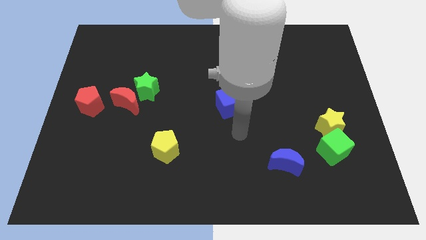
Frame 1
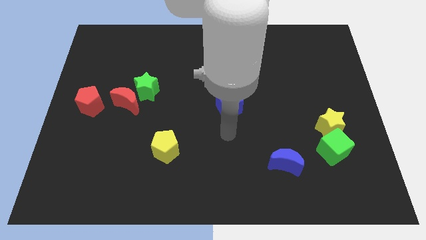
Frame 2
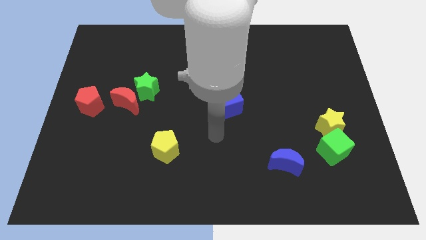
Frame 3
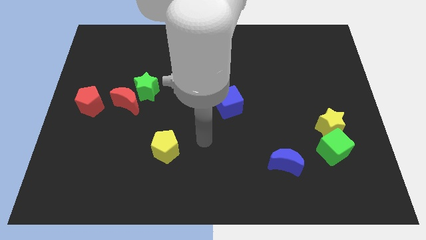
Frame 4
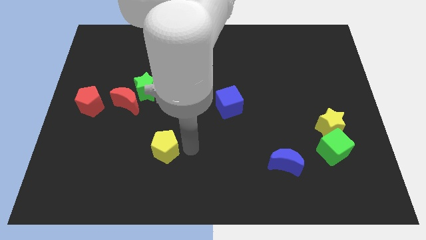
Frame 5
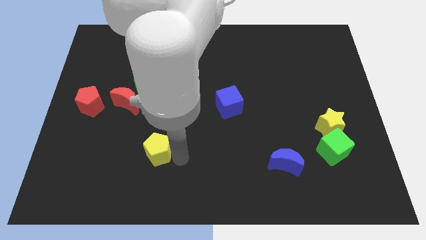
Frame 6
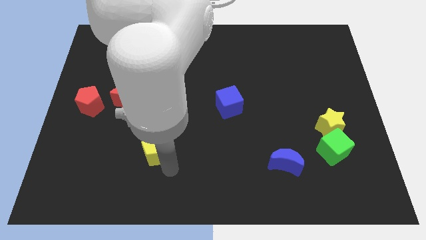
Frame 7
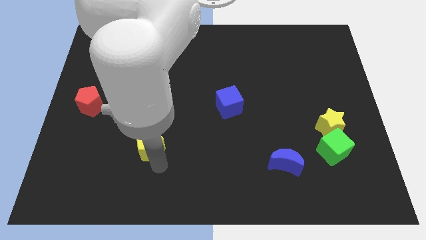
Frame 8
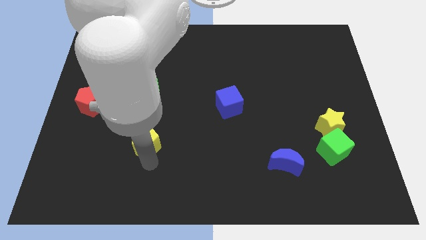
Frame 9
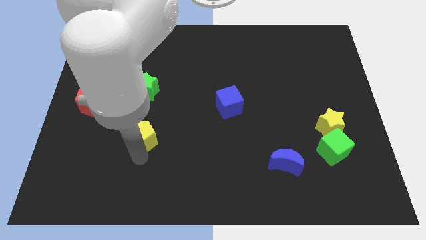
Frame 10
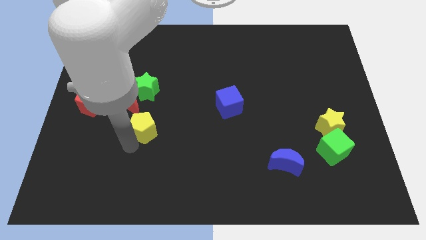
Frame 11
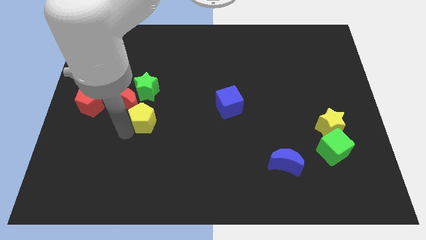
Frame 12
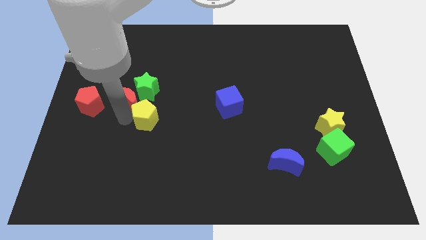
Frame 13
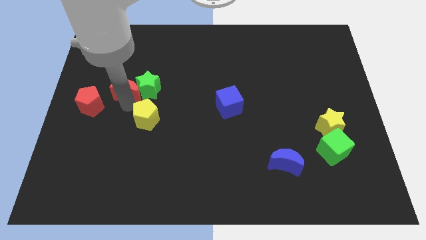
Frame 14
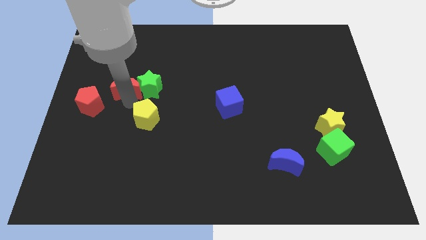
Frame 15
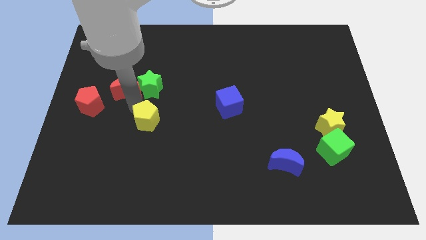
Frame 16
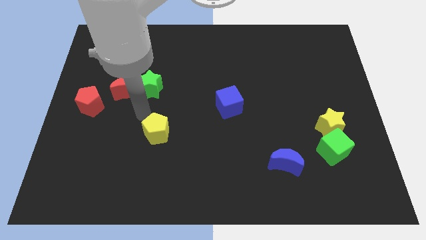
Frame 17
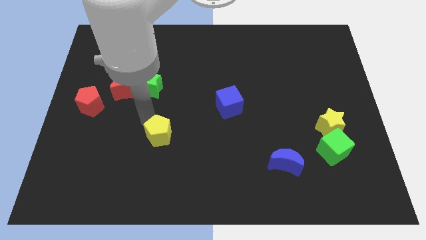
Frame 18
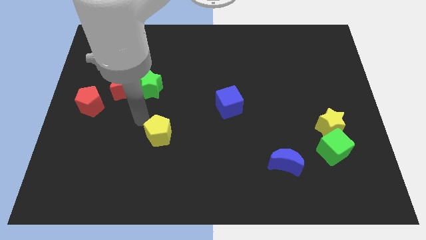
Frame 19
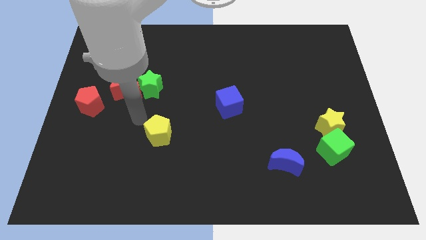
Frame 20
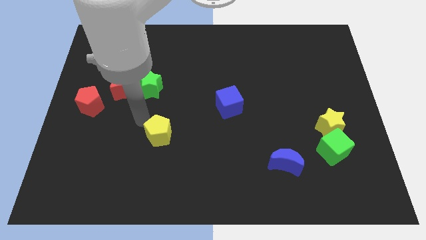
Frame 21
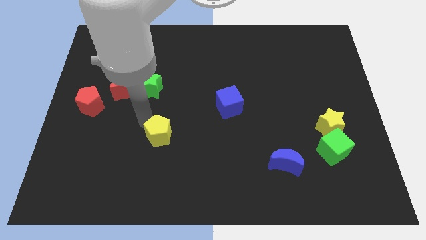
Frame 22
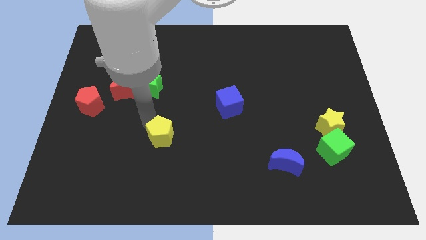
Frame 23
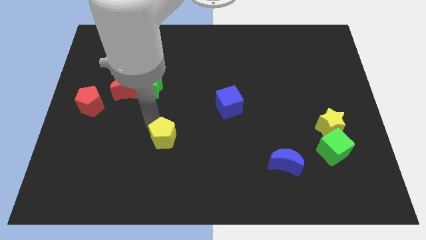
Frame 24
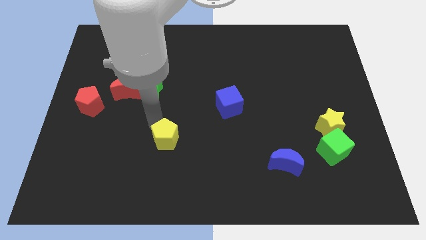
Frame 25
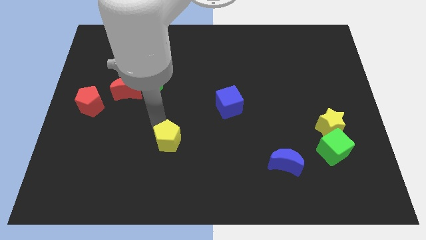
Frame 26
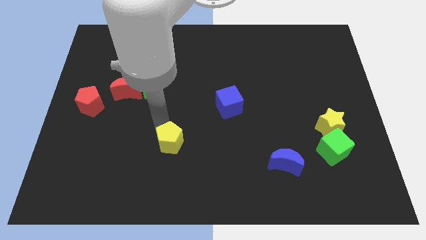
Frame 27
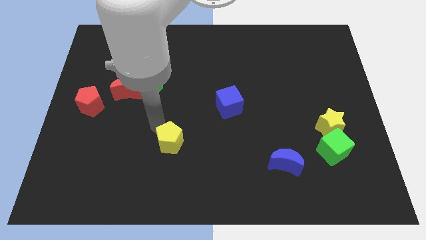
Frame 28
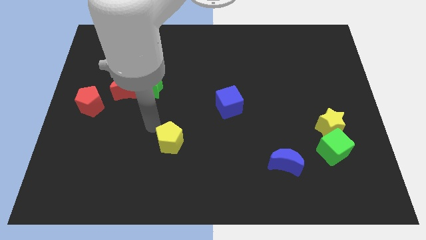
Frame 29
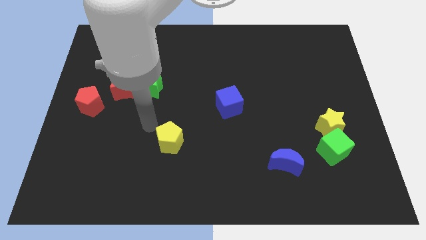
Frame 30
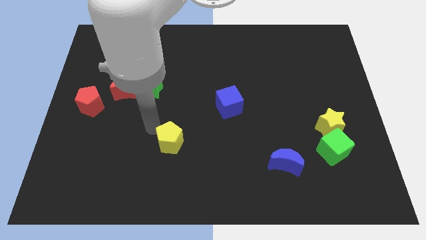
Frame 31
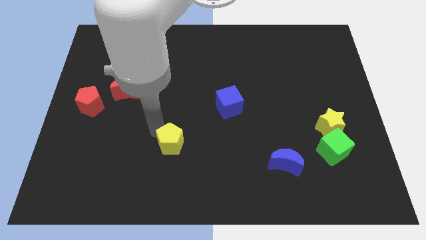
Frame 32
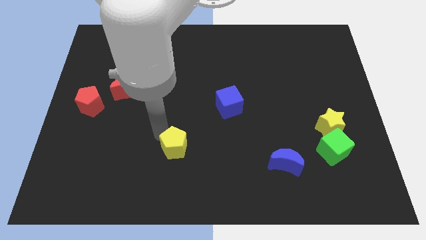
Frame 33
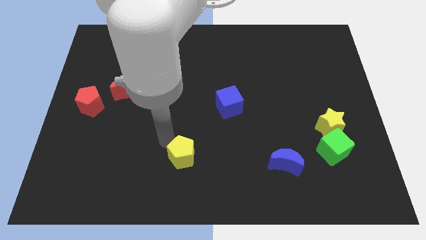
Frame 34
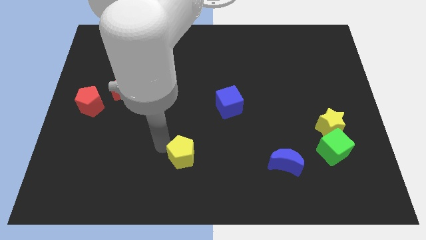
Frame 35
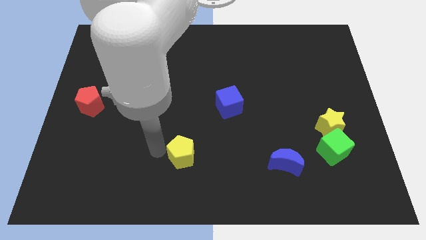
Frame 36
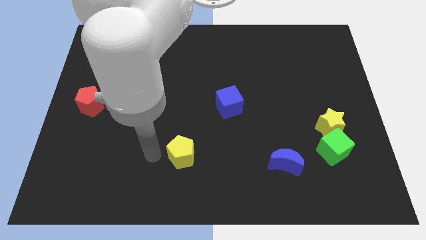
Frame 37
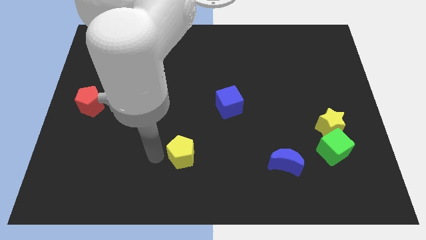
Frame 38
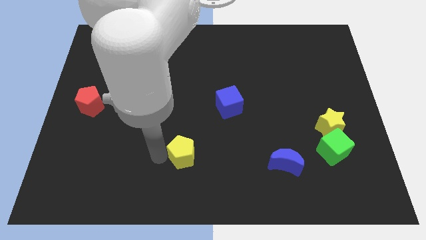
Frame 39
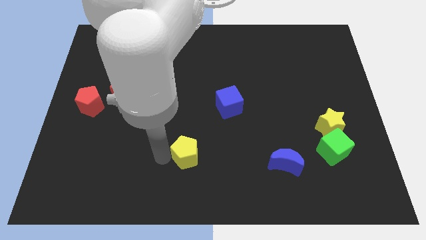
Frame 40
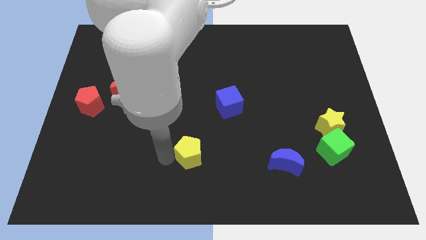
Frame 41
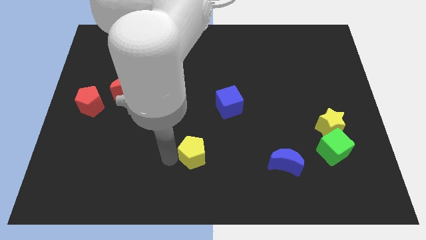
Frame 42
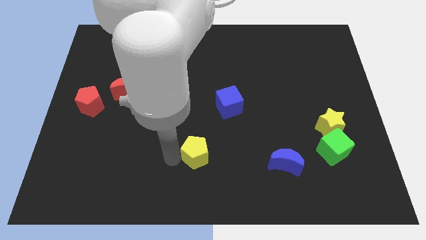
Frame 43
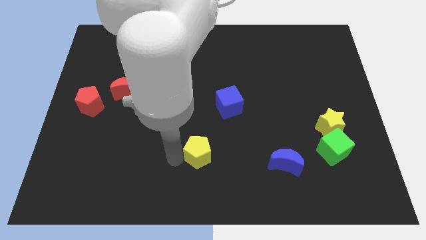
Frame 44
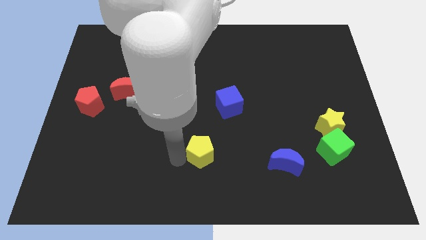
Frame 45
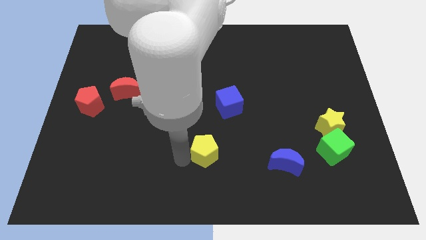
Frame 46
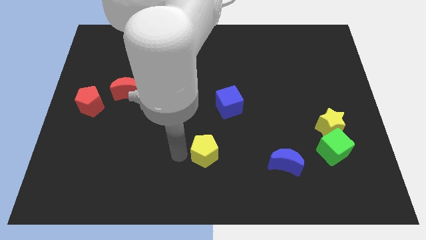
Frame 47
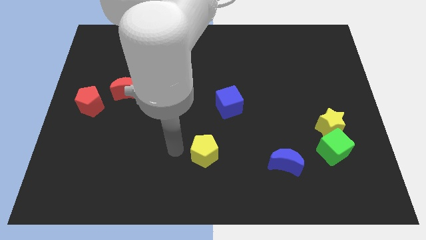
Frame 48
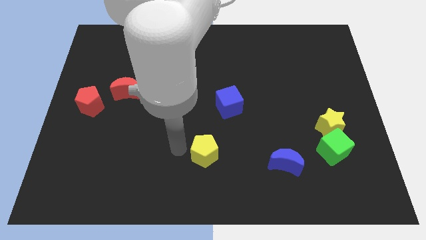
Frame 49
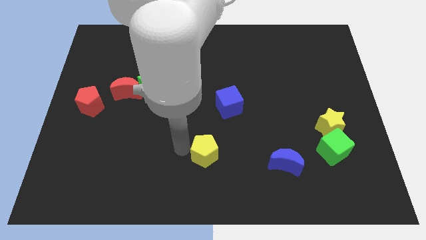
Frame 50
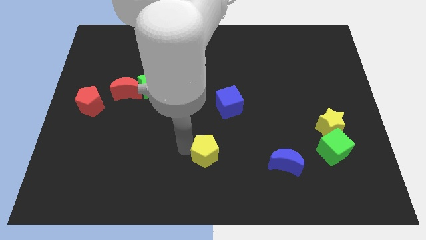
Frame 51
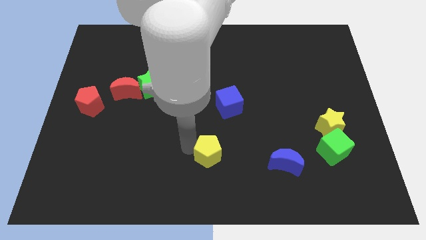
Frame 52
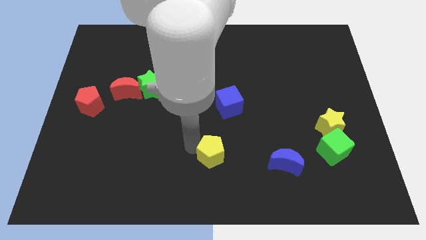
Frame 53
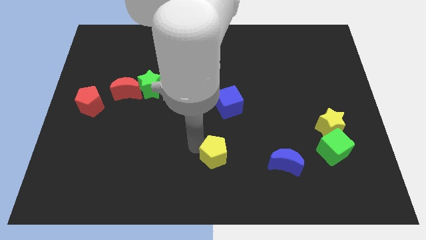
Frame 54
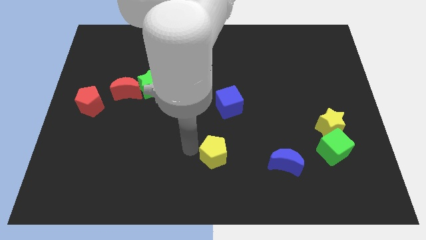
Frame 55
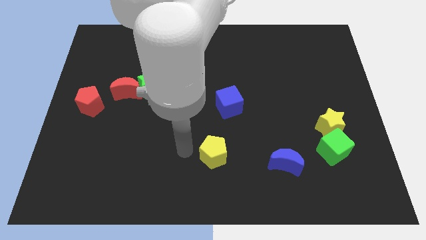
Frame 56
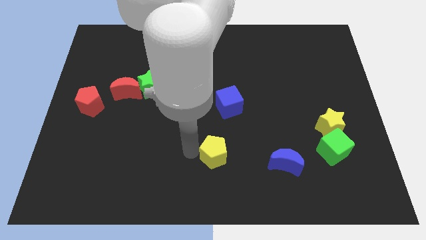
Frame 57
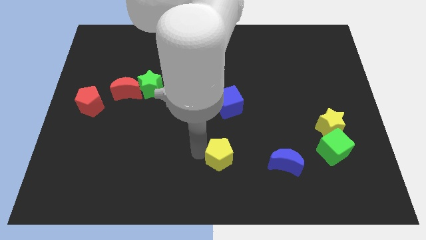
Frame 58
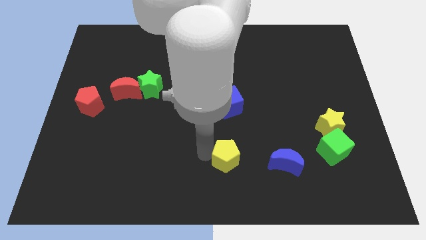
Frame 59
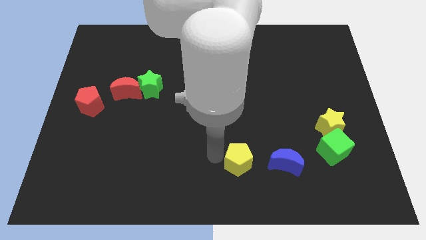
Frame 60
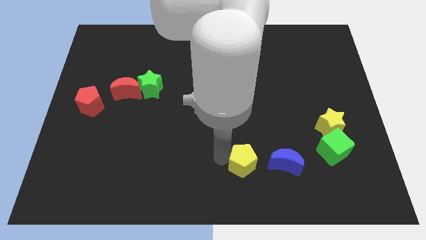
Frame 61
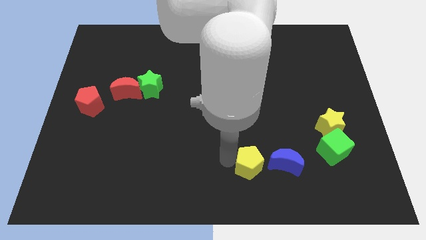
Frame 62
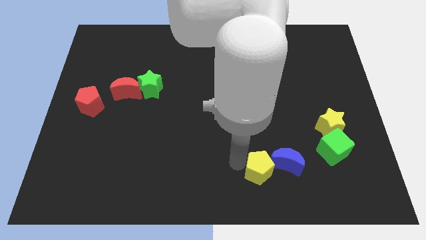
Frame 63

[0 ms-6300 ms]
put the yellow pentagon close to the blue moon

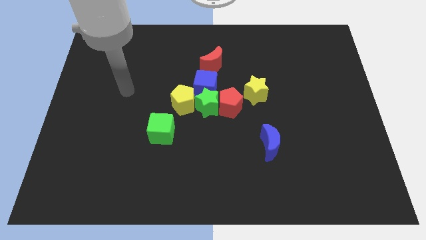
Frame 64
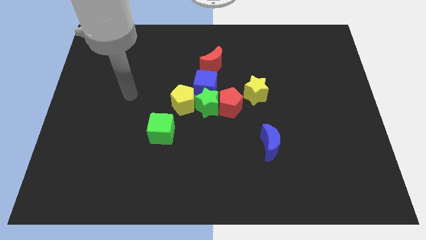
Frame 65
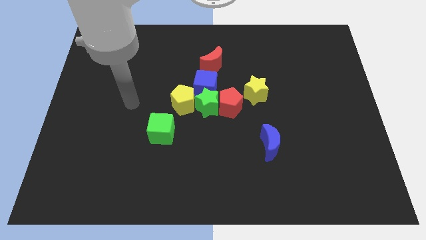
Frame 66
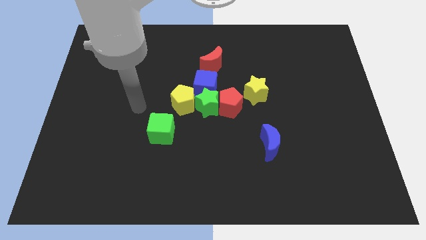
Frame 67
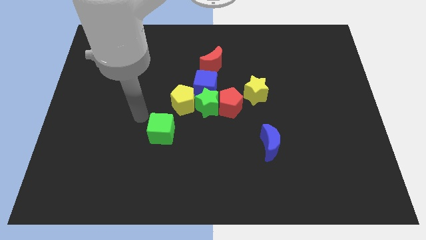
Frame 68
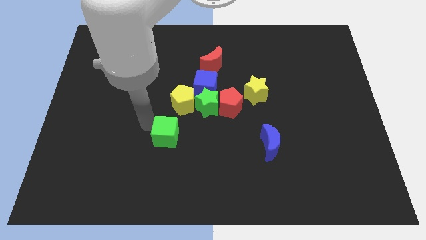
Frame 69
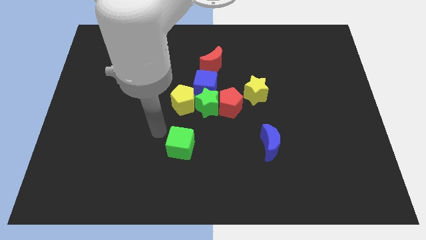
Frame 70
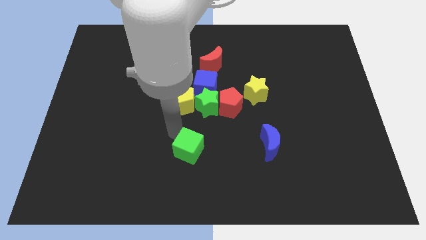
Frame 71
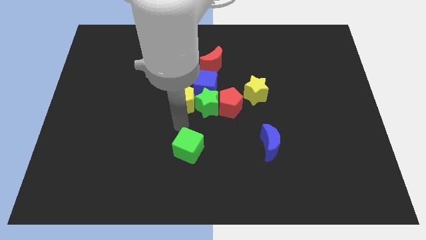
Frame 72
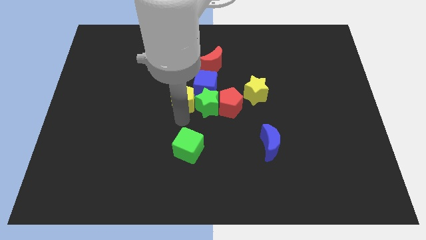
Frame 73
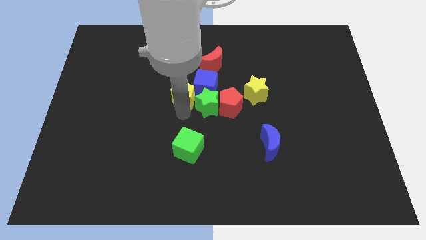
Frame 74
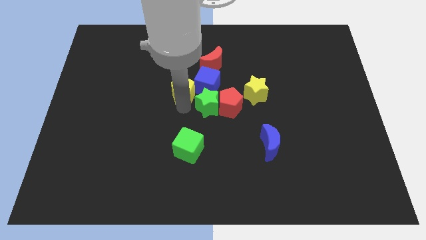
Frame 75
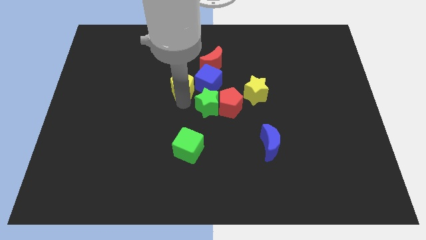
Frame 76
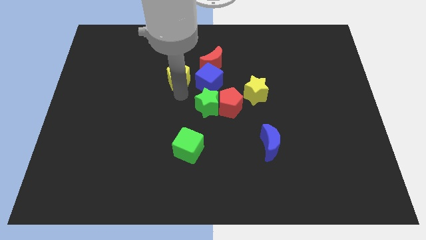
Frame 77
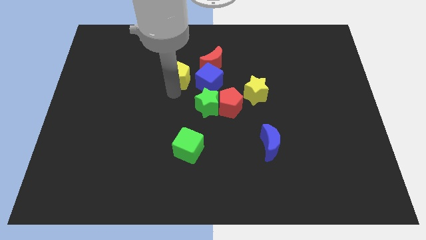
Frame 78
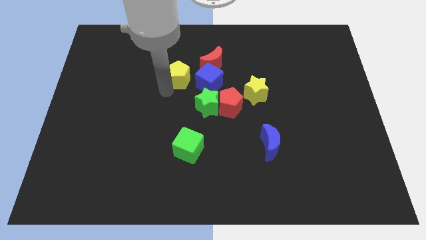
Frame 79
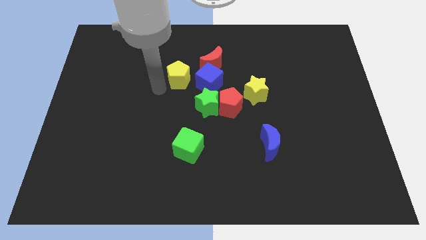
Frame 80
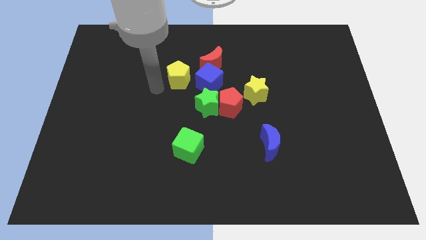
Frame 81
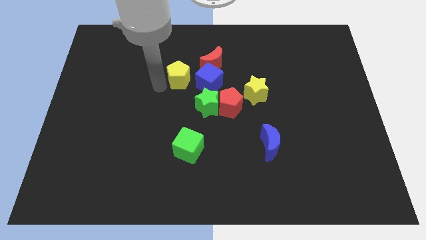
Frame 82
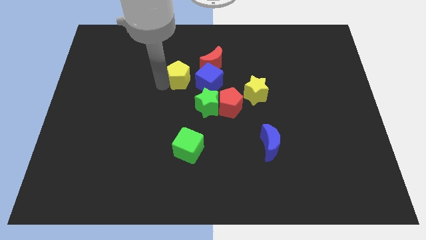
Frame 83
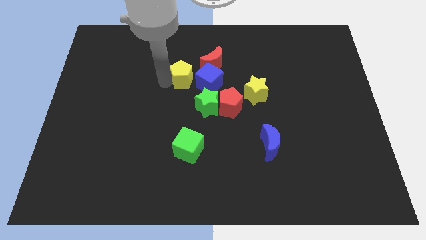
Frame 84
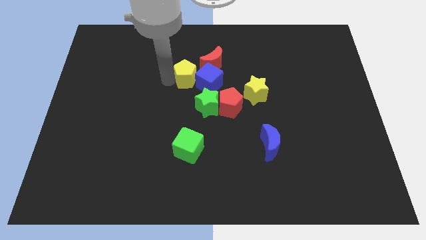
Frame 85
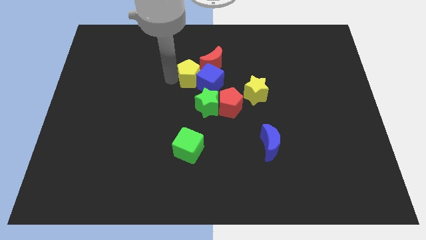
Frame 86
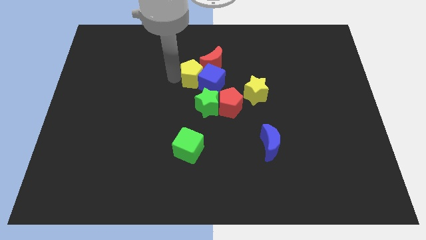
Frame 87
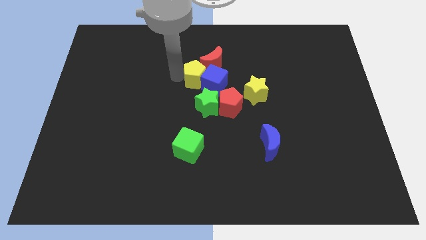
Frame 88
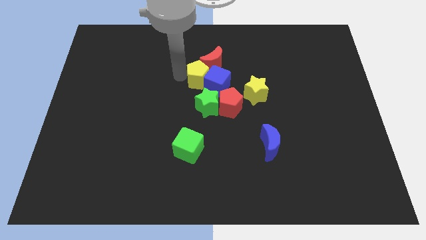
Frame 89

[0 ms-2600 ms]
put the yellow pentagon towards the red moon
